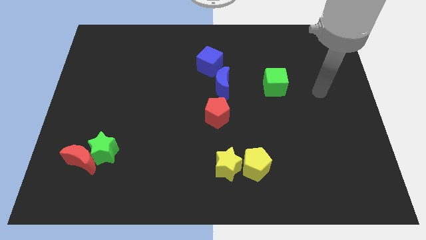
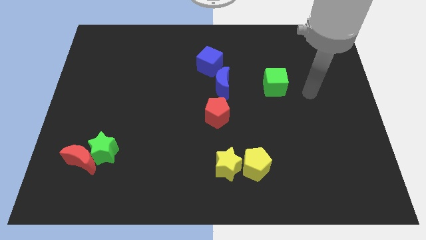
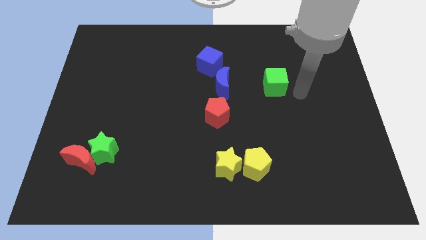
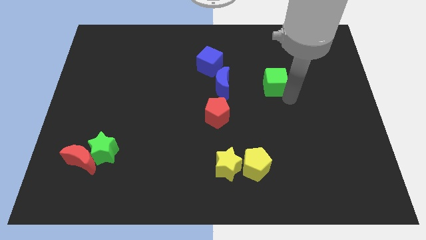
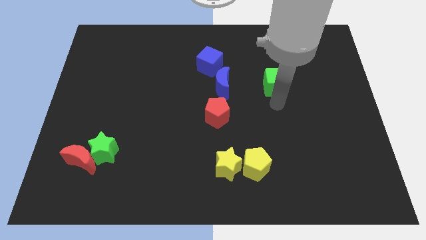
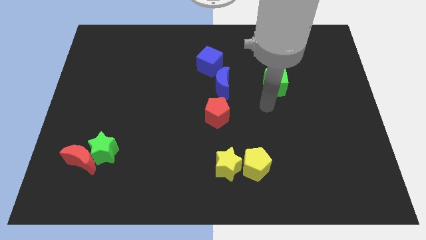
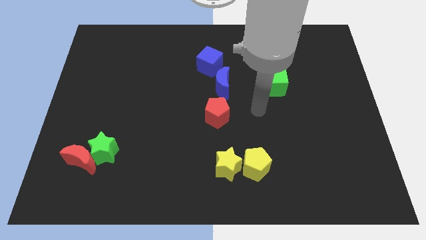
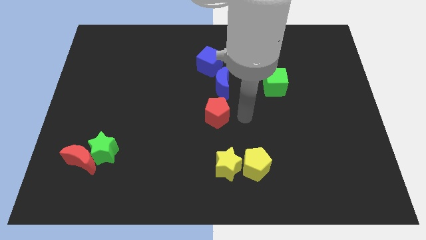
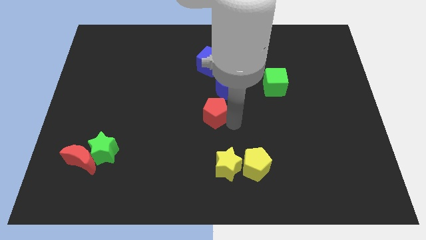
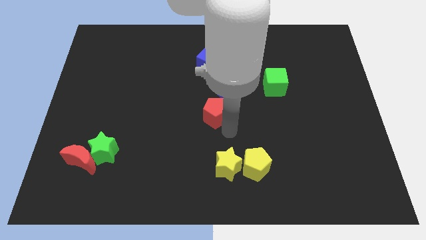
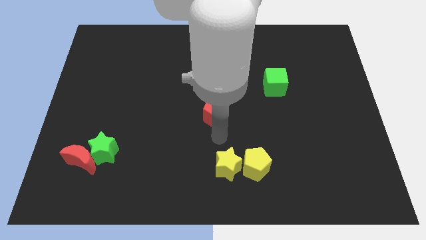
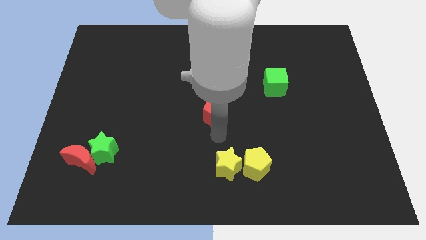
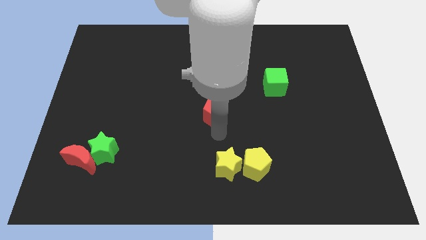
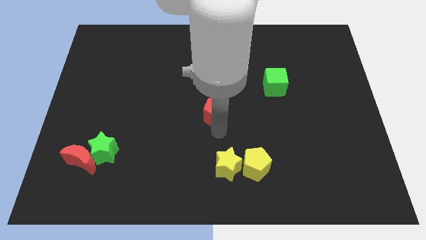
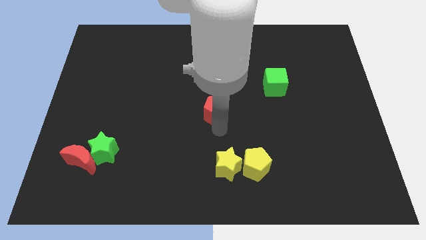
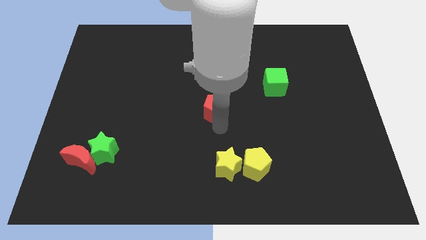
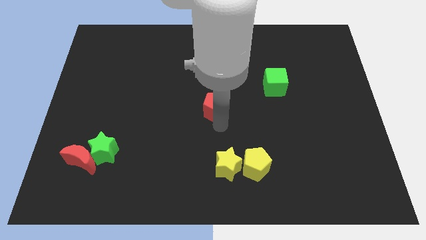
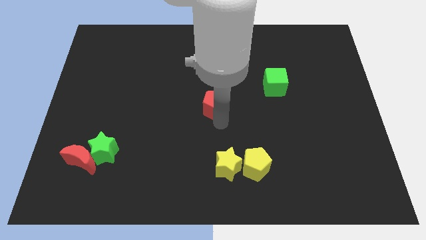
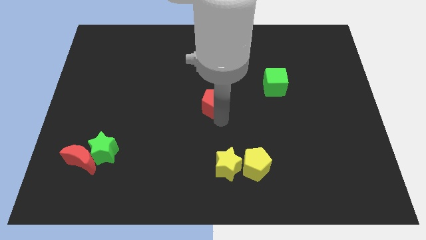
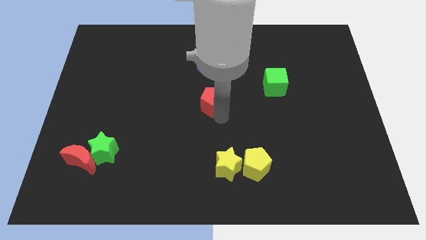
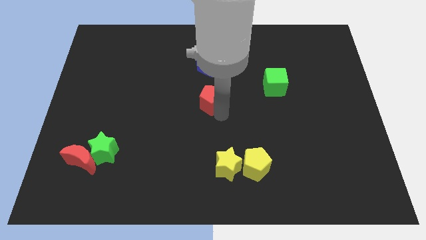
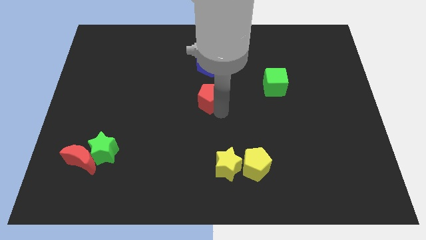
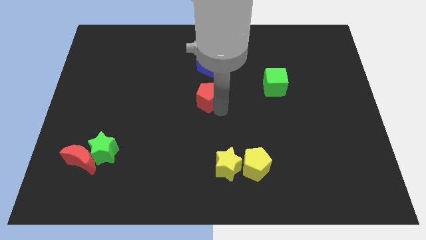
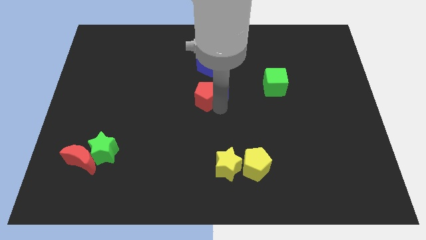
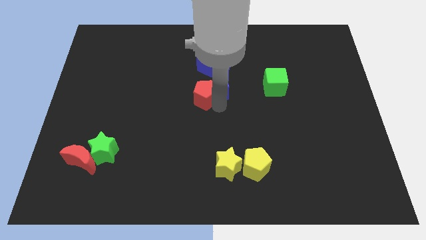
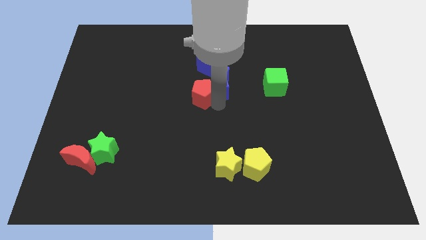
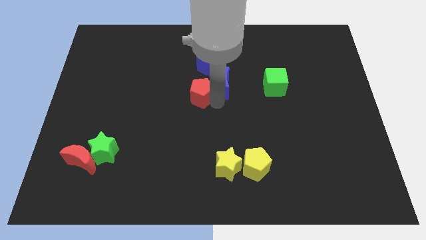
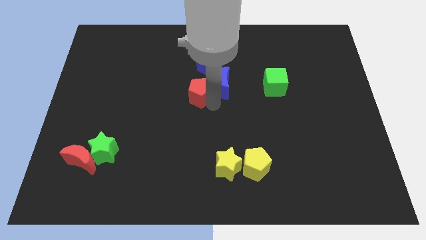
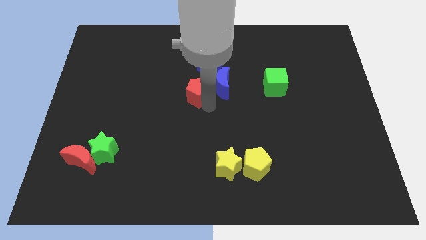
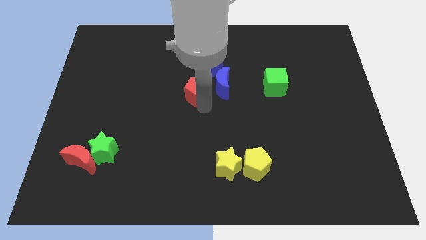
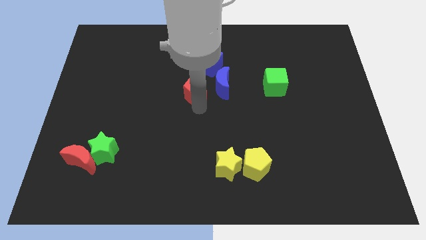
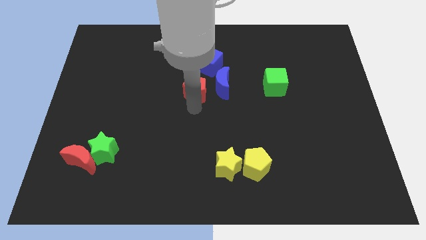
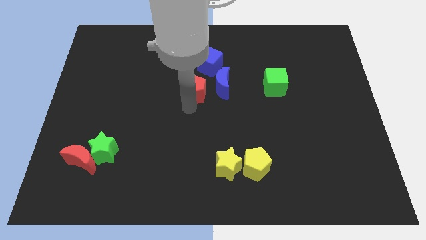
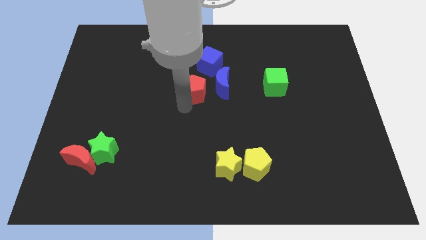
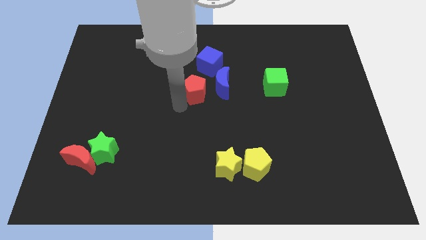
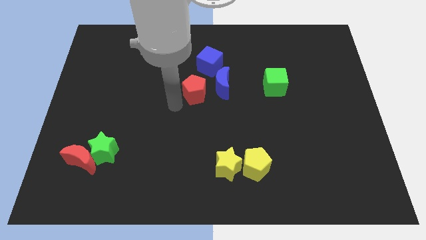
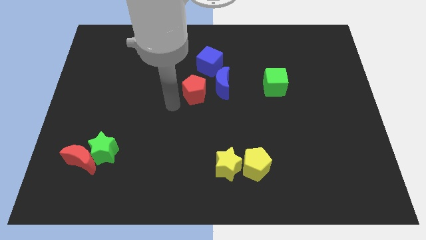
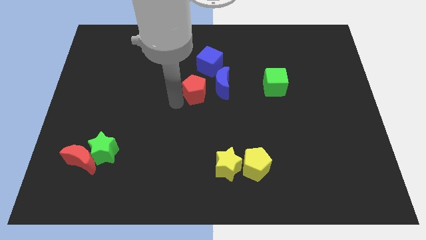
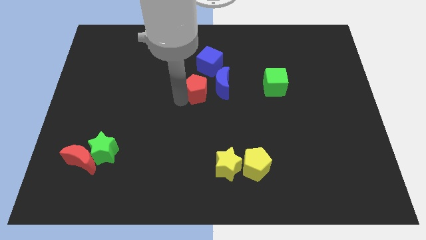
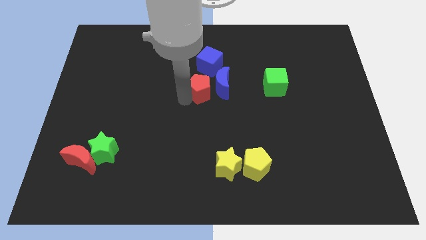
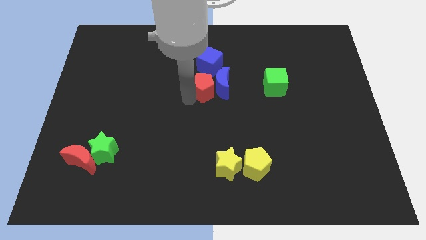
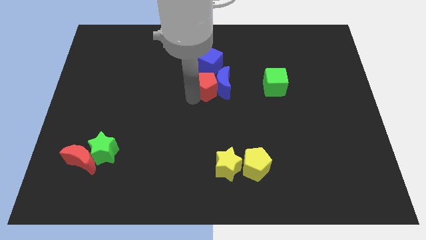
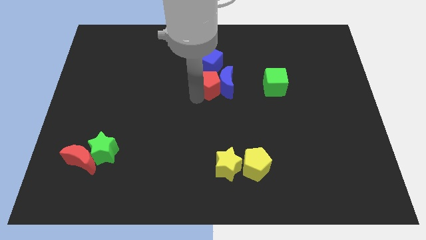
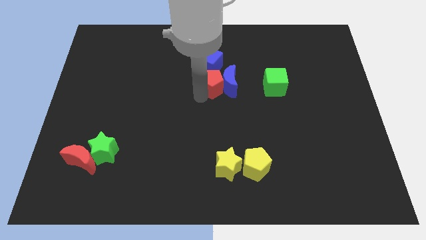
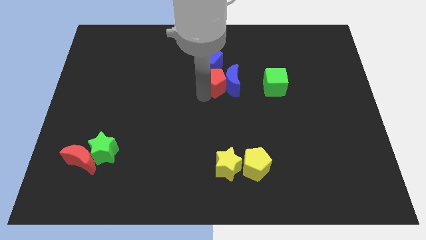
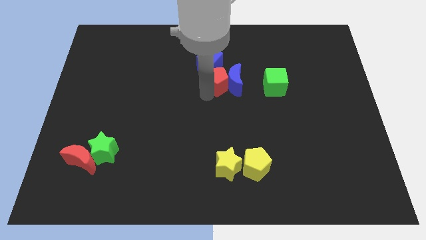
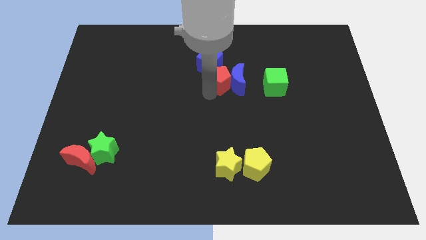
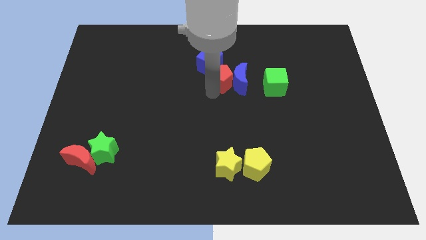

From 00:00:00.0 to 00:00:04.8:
move the red pentagon towards the blue cube

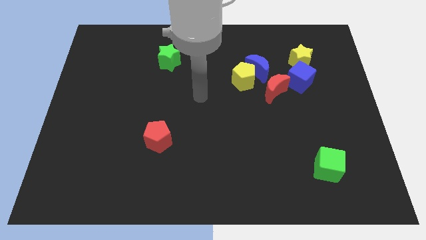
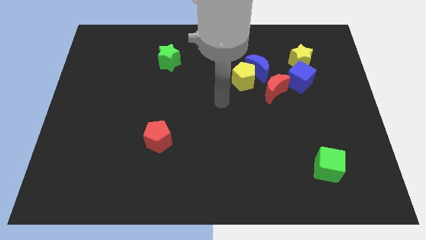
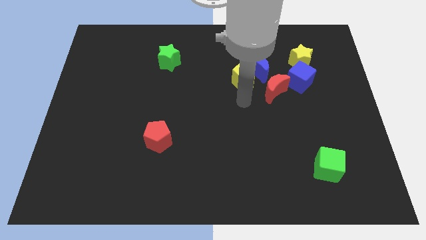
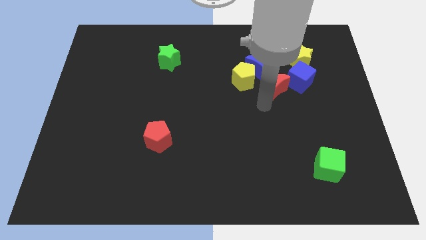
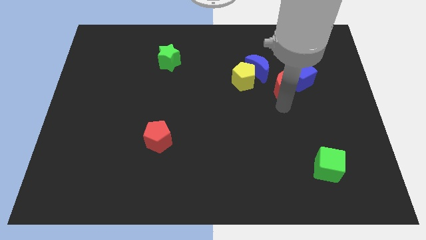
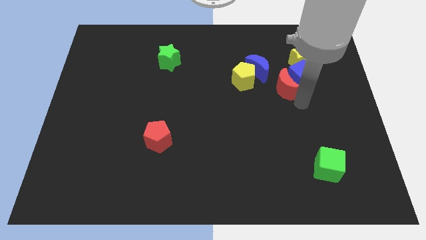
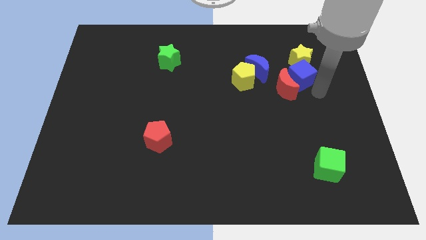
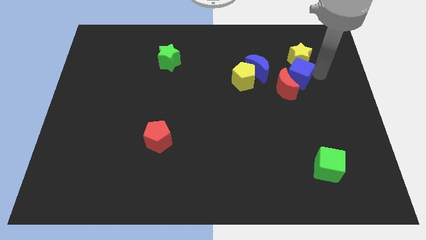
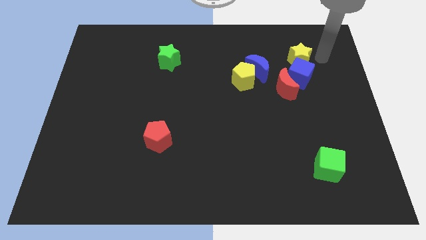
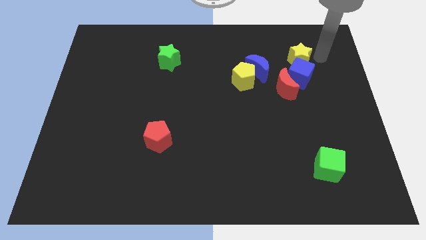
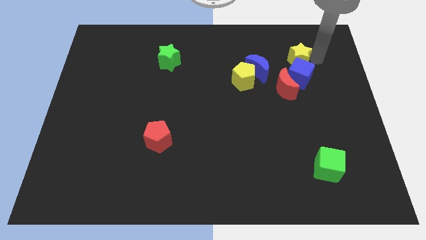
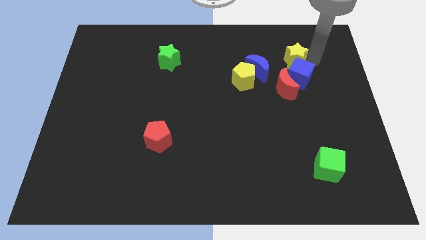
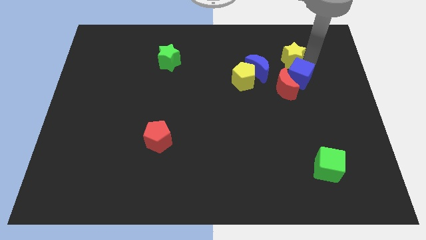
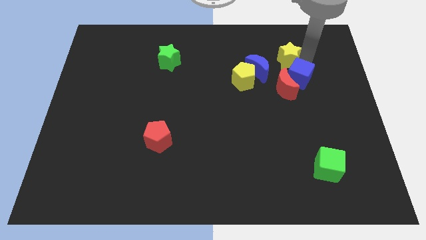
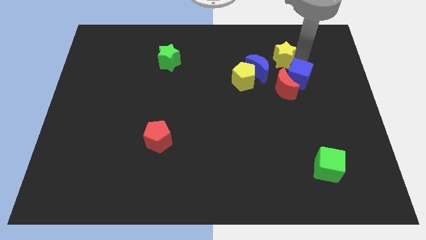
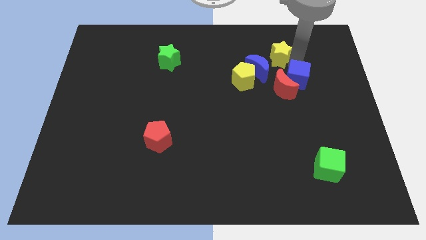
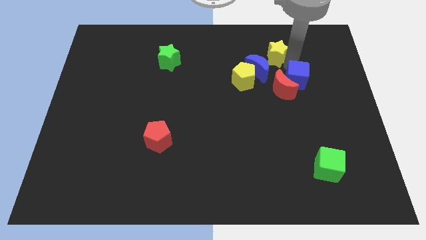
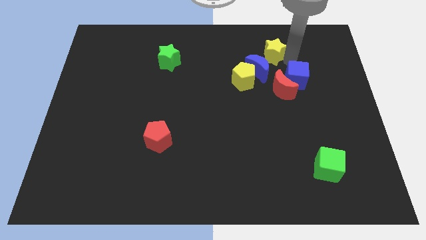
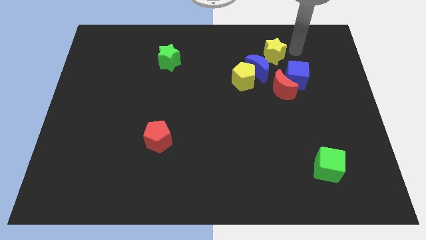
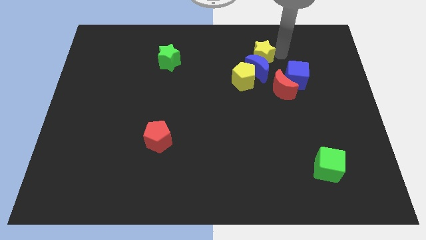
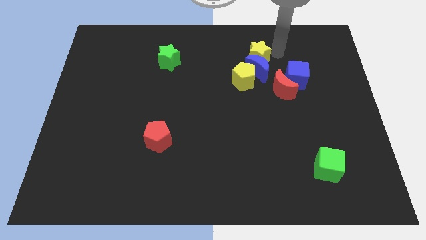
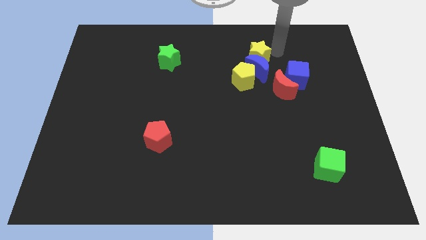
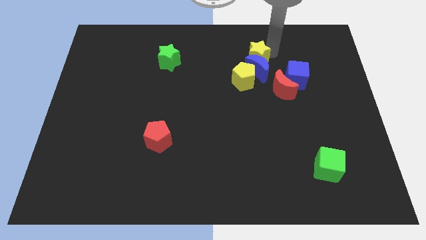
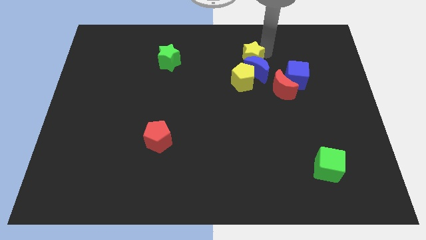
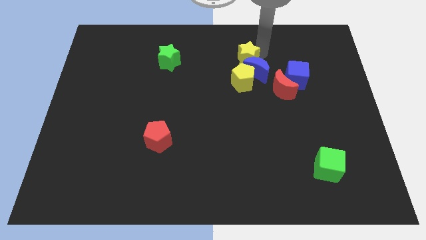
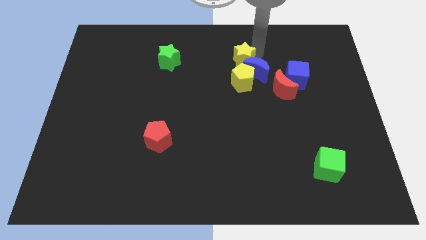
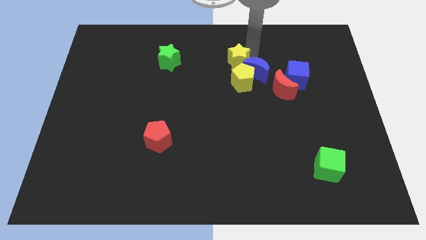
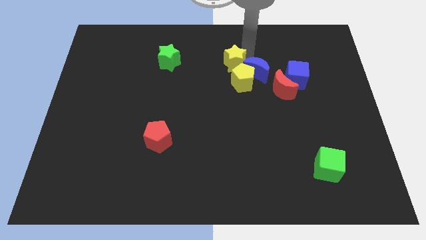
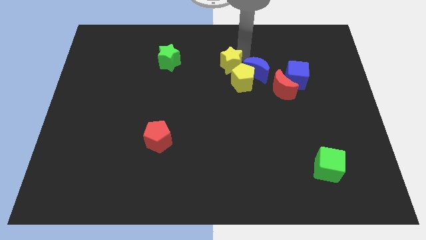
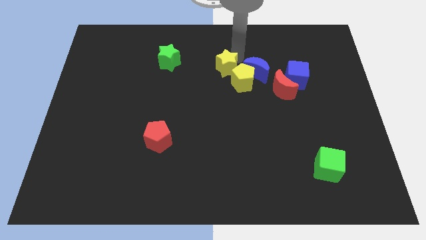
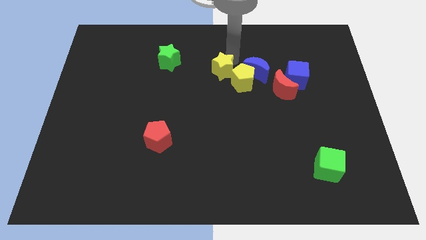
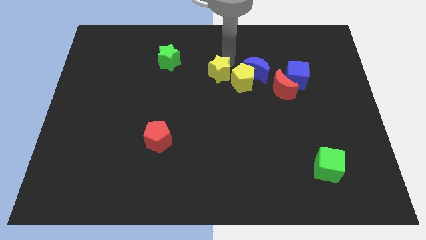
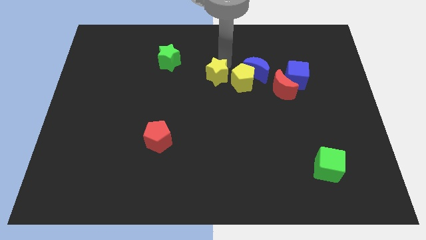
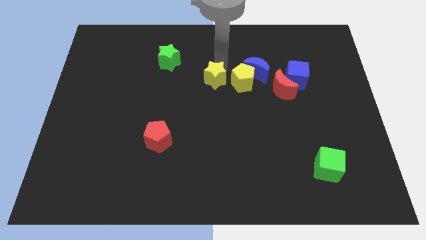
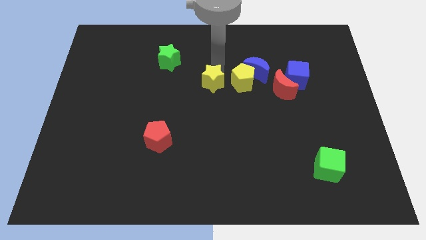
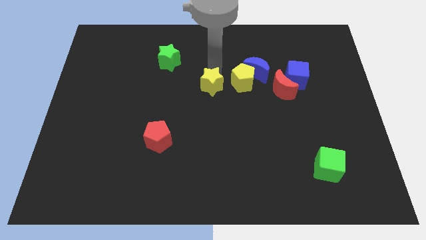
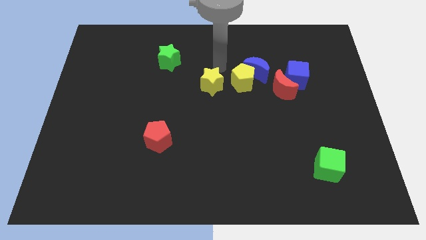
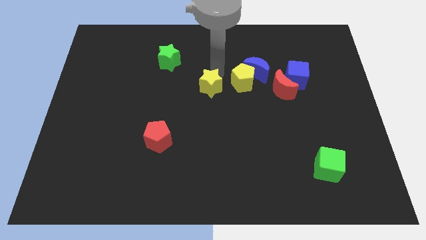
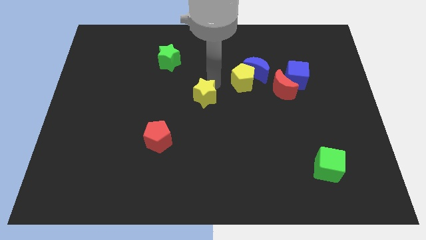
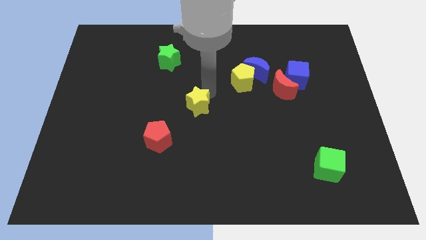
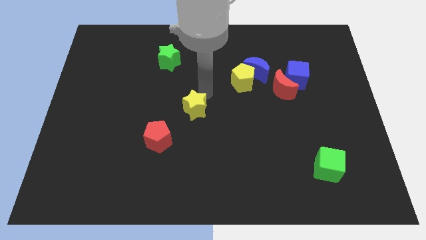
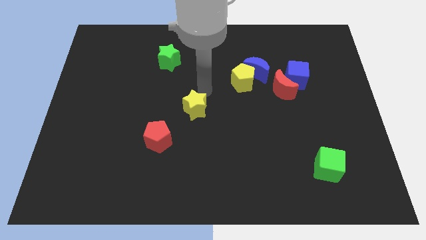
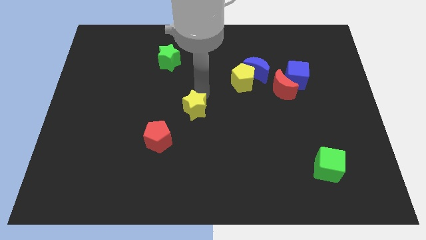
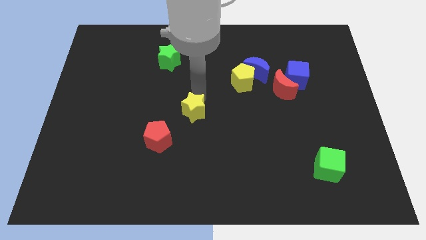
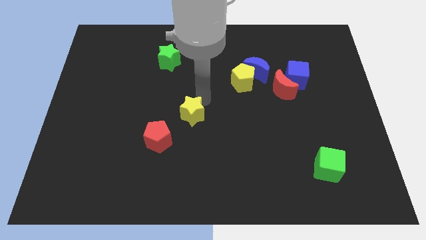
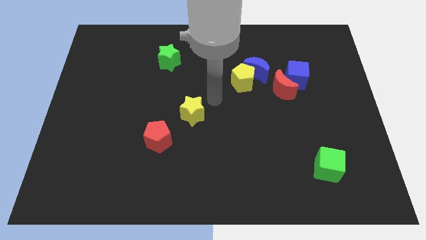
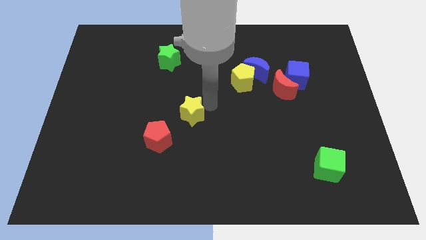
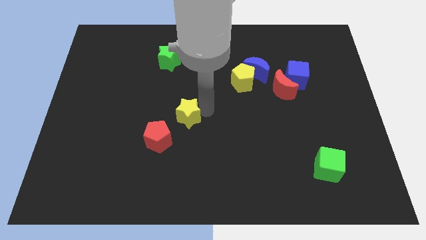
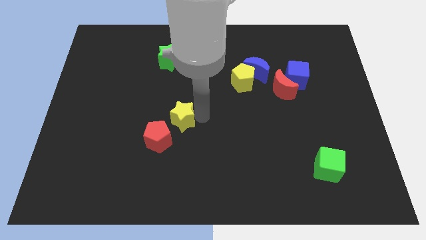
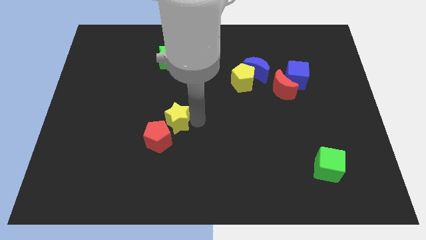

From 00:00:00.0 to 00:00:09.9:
put the yellow star to the red pentagon
